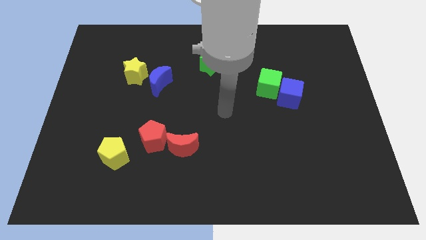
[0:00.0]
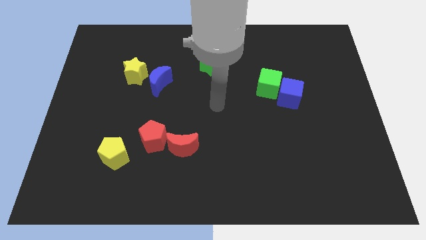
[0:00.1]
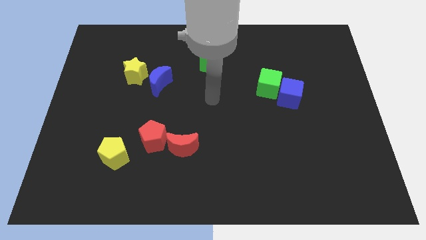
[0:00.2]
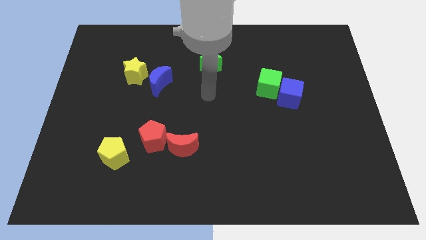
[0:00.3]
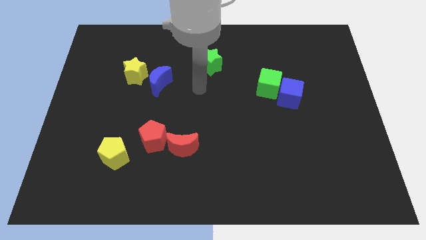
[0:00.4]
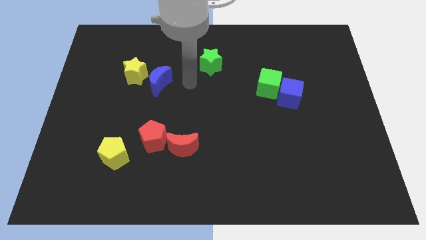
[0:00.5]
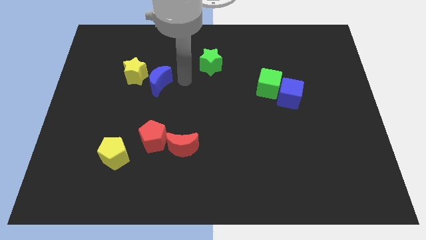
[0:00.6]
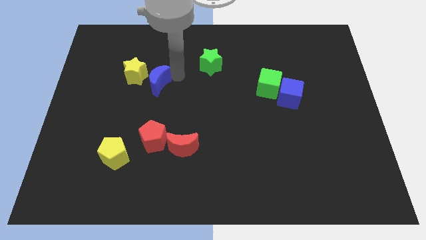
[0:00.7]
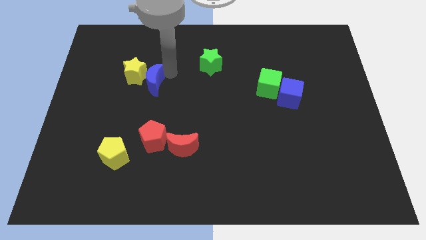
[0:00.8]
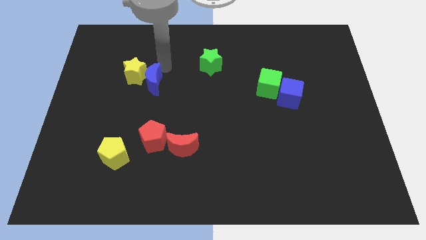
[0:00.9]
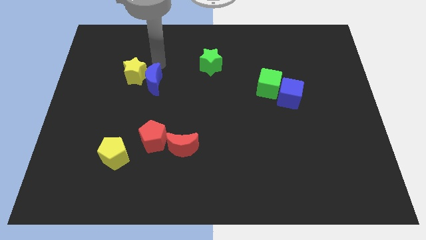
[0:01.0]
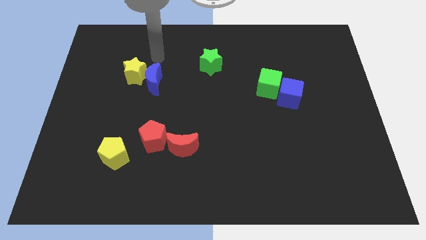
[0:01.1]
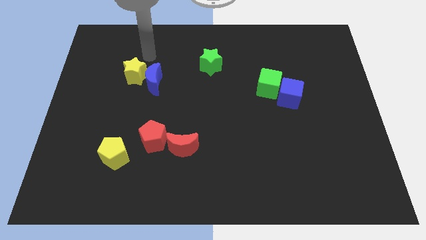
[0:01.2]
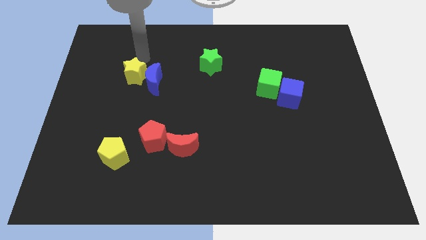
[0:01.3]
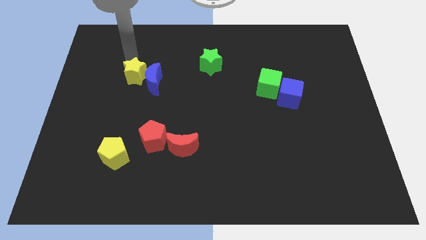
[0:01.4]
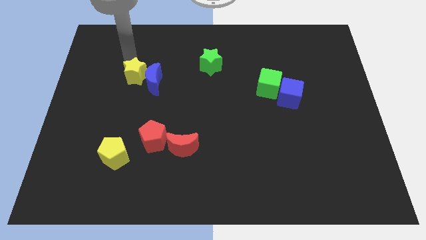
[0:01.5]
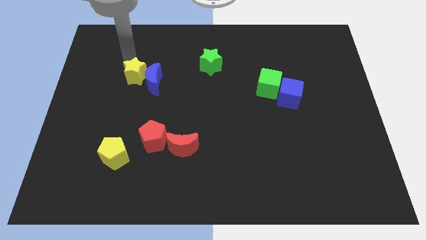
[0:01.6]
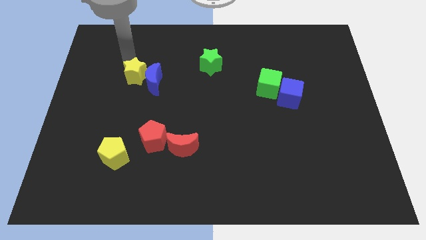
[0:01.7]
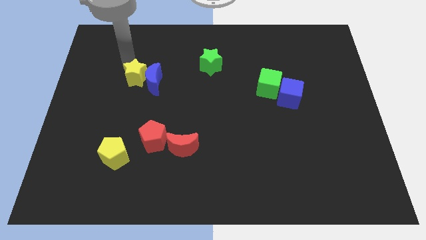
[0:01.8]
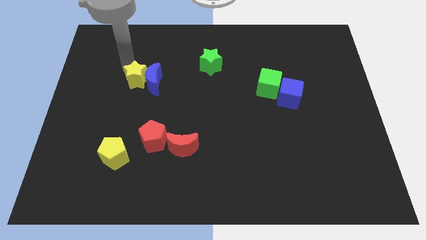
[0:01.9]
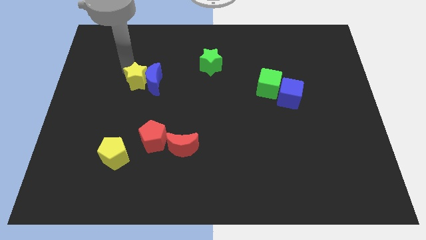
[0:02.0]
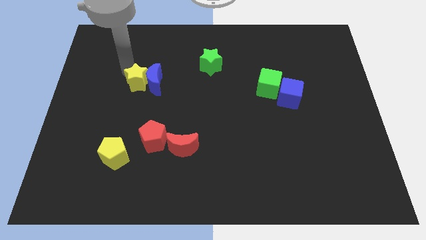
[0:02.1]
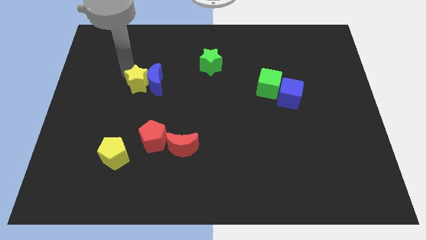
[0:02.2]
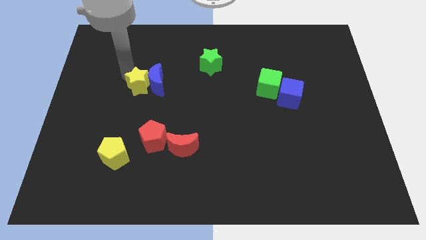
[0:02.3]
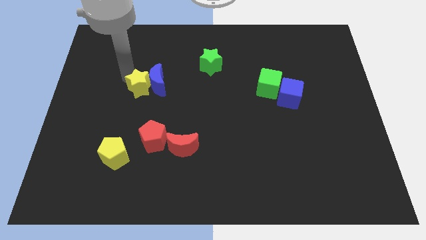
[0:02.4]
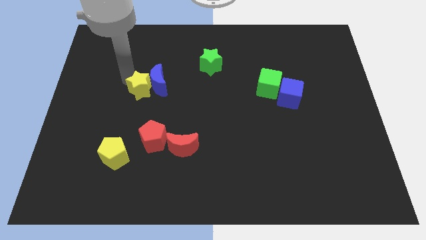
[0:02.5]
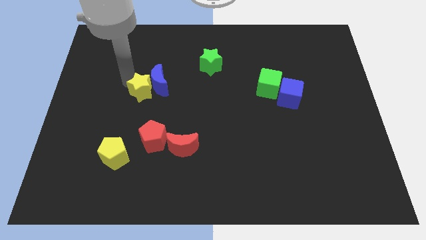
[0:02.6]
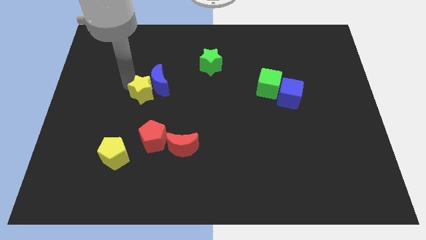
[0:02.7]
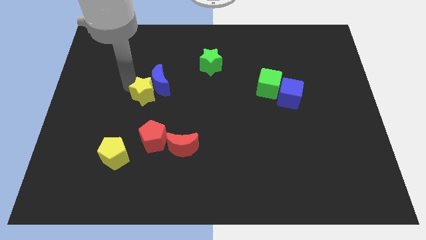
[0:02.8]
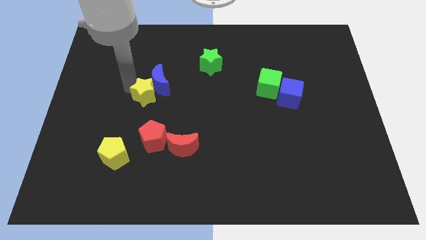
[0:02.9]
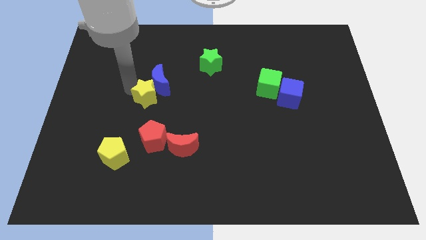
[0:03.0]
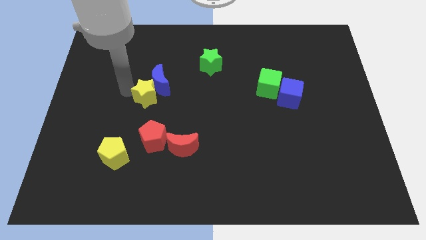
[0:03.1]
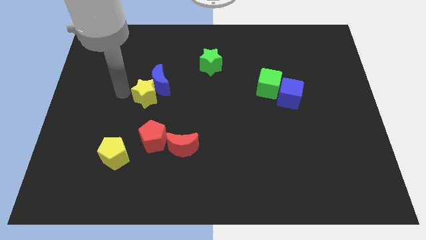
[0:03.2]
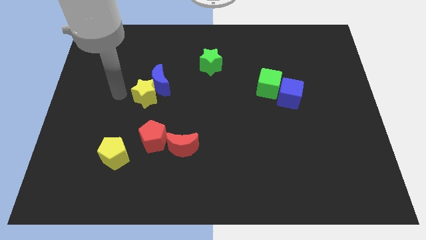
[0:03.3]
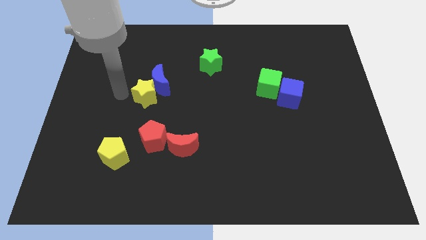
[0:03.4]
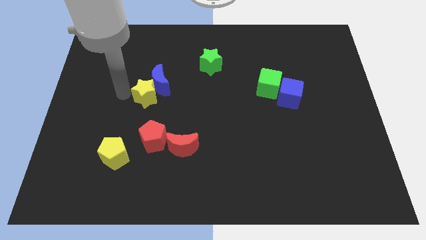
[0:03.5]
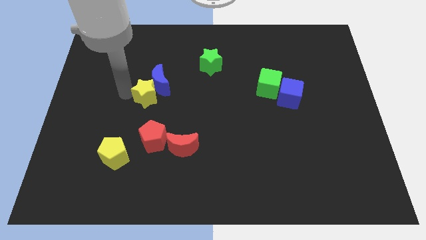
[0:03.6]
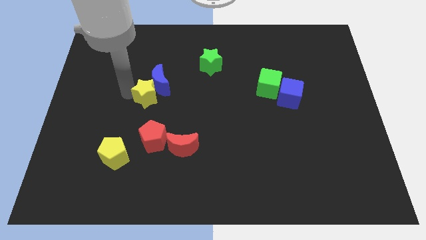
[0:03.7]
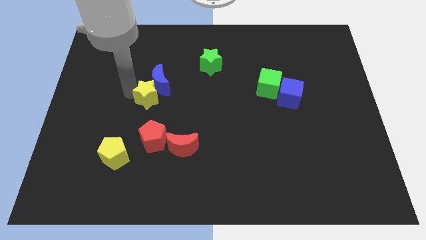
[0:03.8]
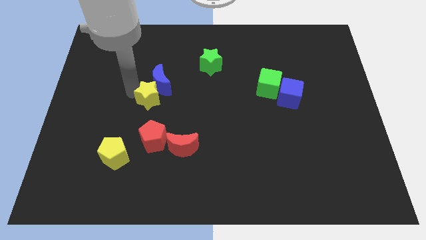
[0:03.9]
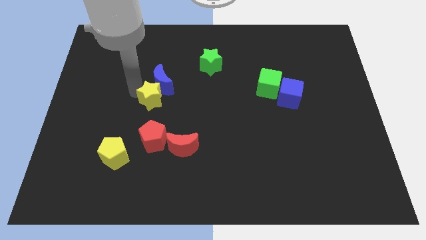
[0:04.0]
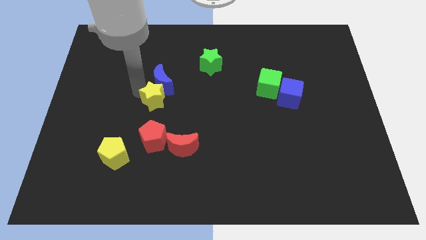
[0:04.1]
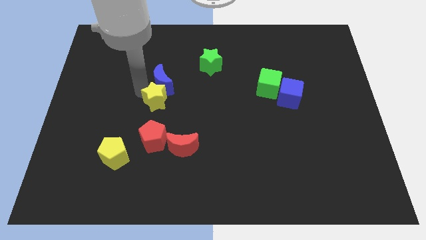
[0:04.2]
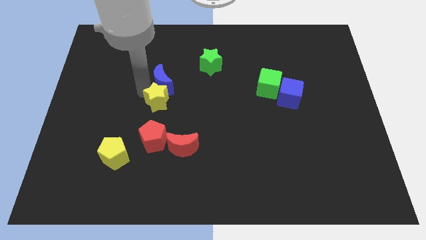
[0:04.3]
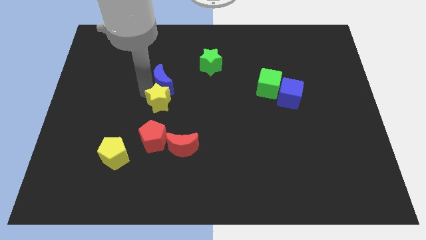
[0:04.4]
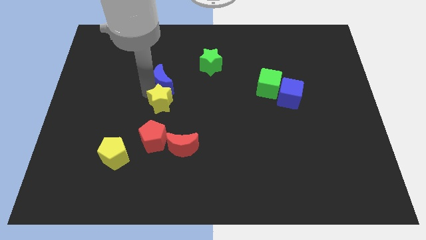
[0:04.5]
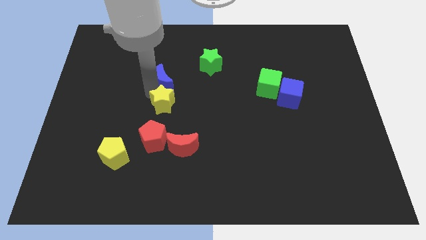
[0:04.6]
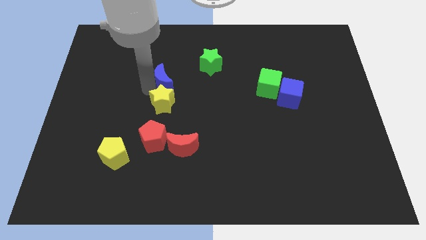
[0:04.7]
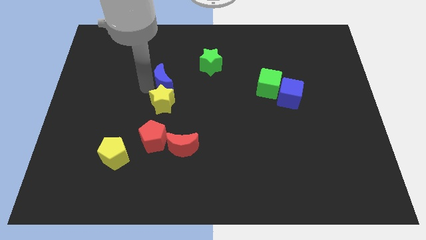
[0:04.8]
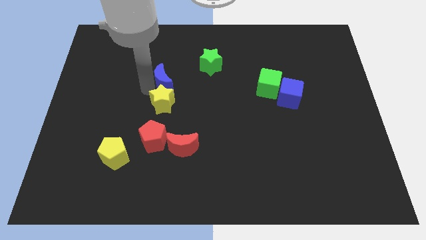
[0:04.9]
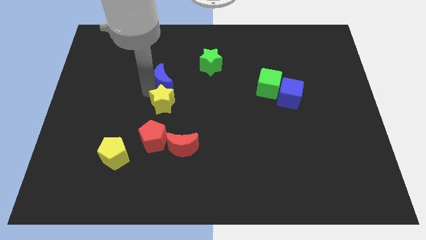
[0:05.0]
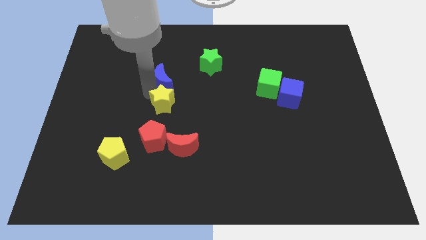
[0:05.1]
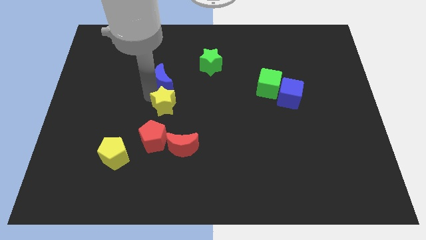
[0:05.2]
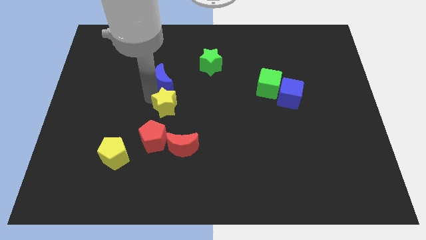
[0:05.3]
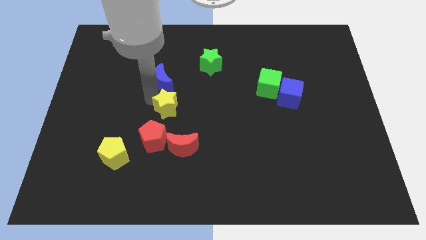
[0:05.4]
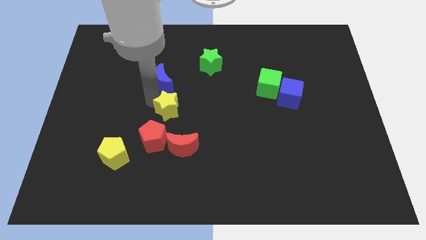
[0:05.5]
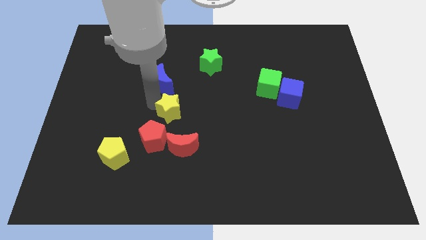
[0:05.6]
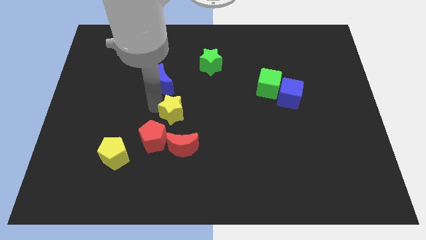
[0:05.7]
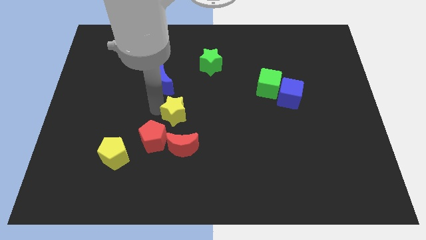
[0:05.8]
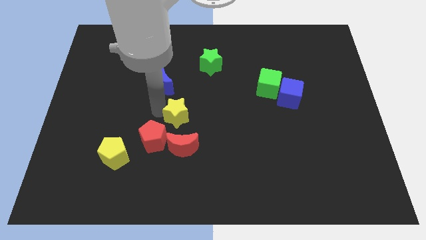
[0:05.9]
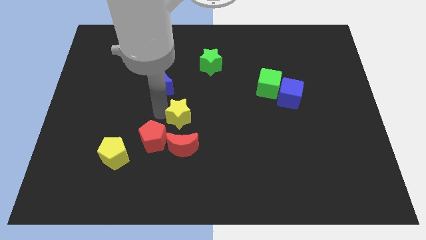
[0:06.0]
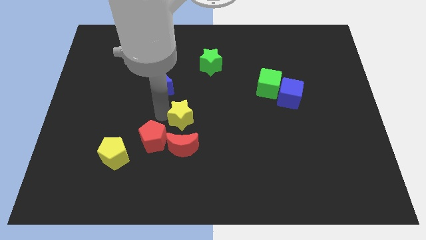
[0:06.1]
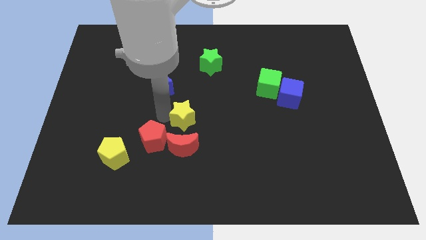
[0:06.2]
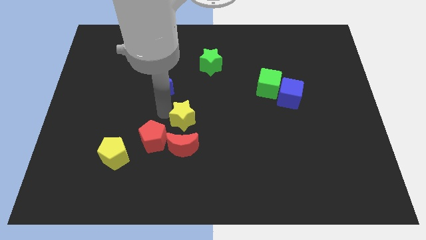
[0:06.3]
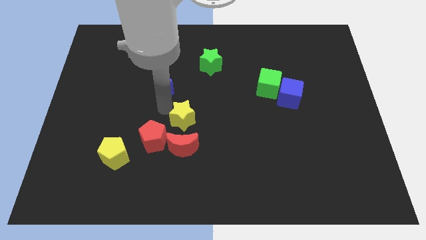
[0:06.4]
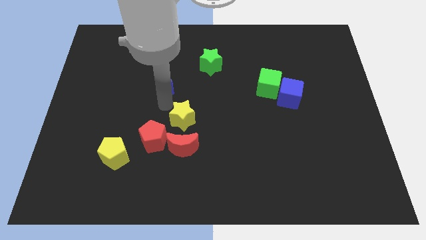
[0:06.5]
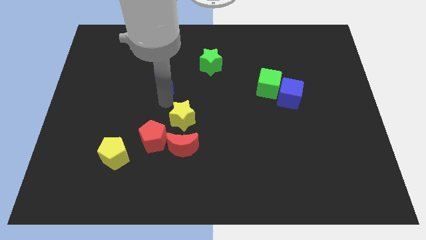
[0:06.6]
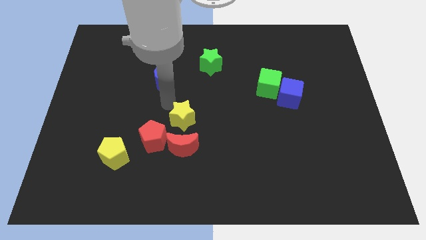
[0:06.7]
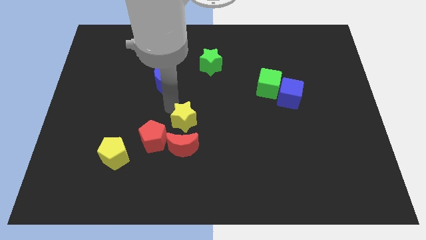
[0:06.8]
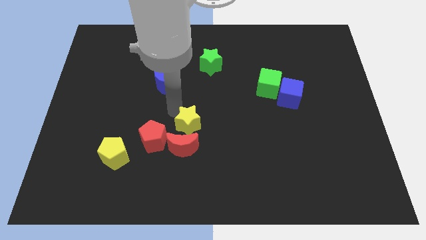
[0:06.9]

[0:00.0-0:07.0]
move the yellow star diagonally down and right

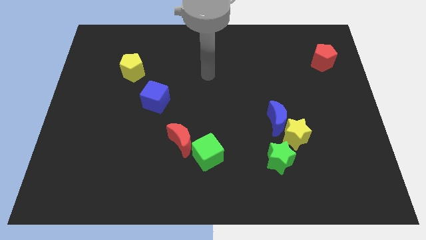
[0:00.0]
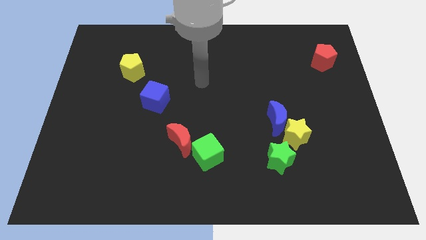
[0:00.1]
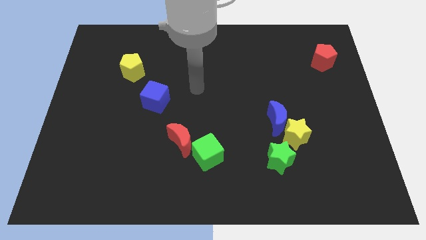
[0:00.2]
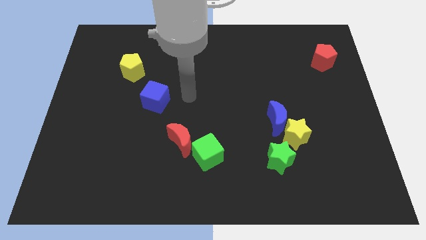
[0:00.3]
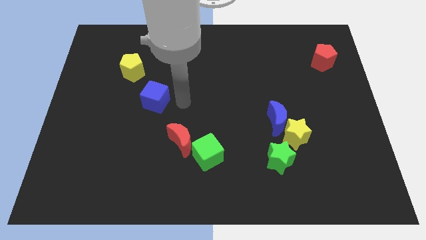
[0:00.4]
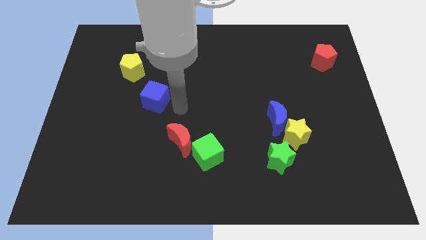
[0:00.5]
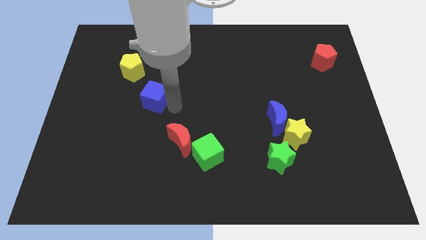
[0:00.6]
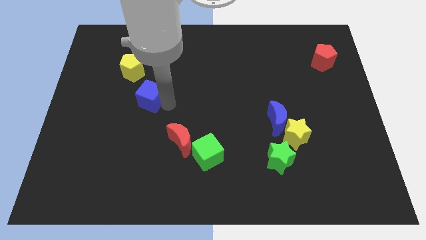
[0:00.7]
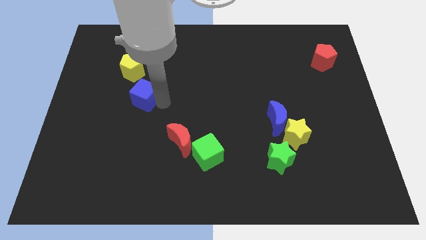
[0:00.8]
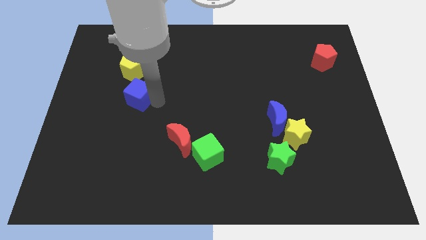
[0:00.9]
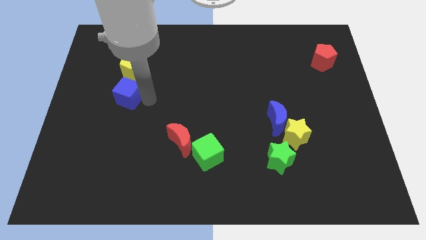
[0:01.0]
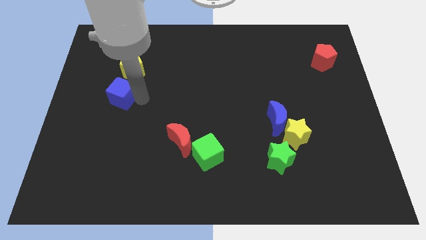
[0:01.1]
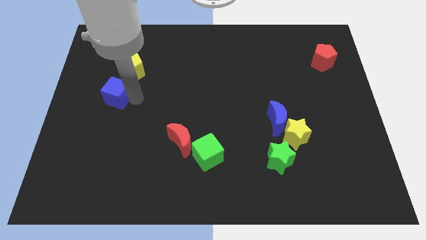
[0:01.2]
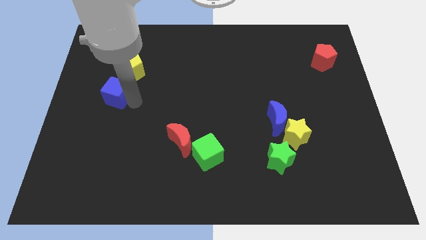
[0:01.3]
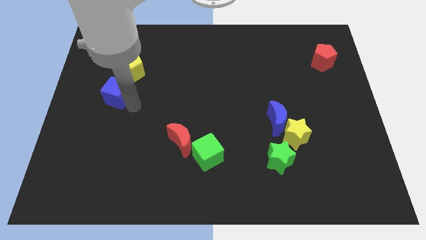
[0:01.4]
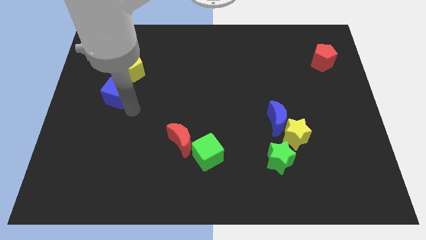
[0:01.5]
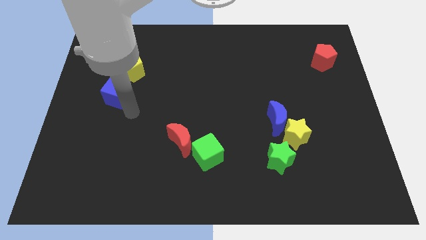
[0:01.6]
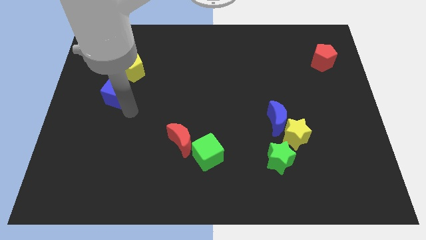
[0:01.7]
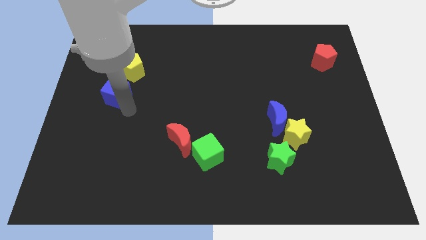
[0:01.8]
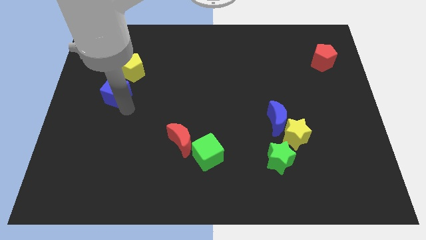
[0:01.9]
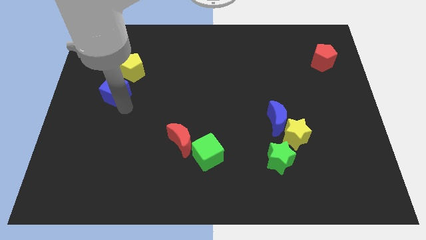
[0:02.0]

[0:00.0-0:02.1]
slightly move the blue cube up and then left
